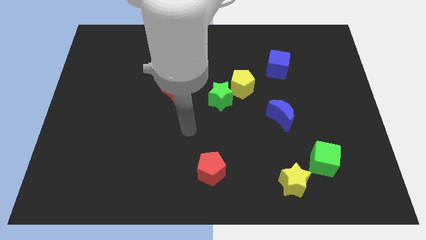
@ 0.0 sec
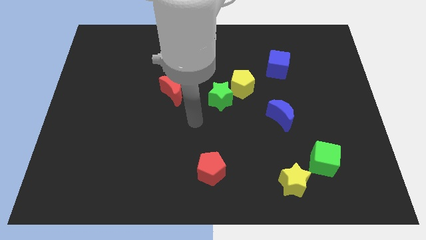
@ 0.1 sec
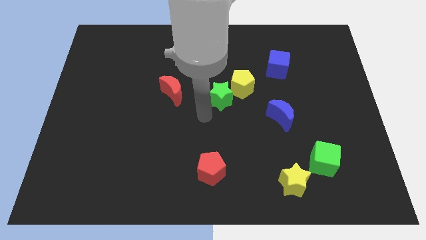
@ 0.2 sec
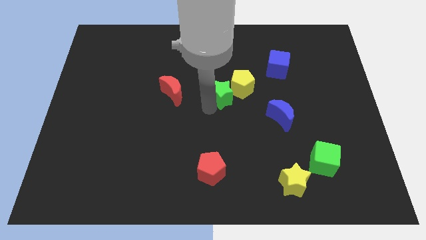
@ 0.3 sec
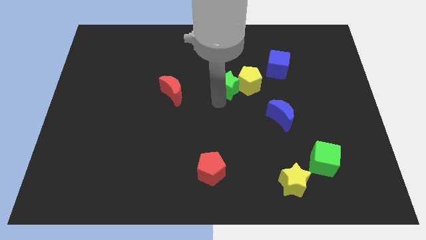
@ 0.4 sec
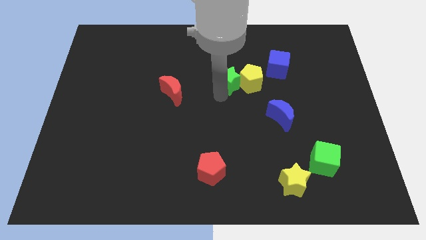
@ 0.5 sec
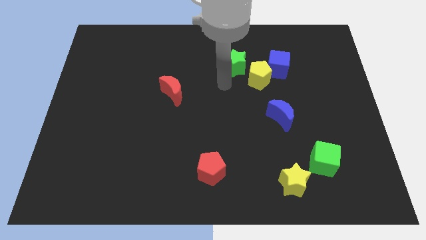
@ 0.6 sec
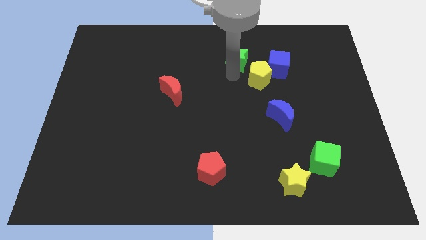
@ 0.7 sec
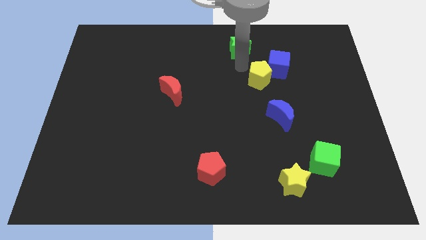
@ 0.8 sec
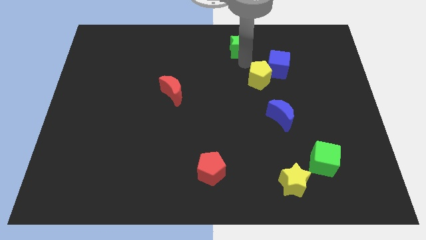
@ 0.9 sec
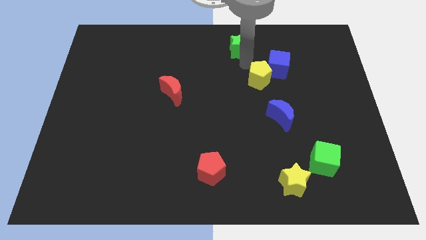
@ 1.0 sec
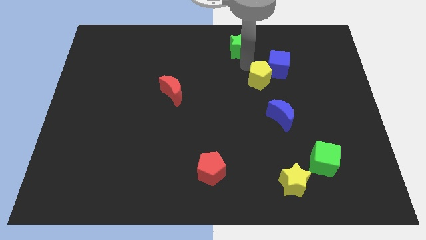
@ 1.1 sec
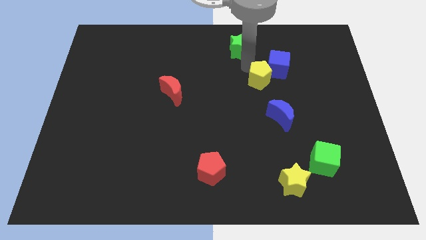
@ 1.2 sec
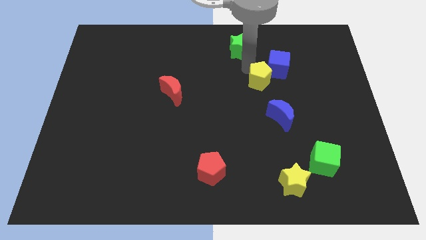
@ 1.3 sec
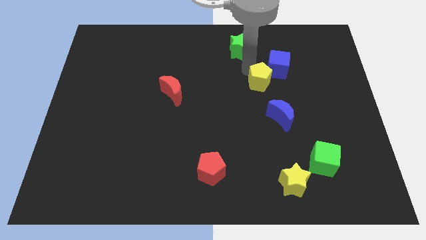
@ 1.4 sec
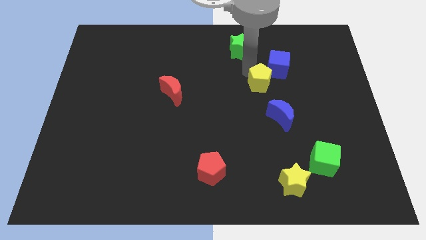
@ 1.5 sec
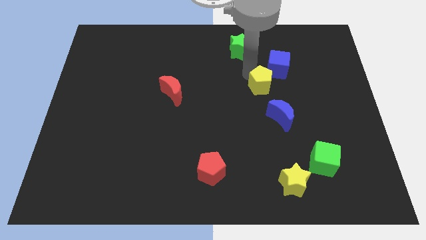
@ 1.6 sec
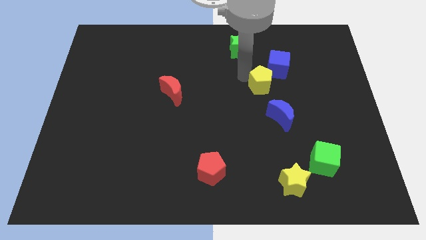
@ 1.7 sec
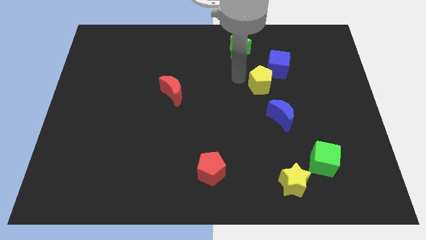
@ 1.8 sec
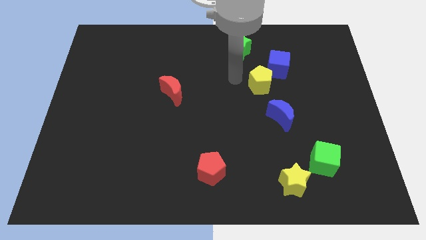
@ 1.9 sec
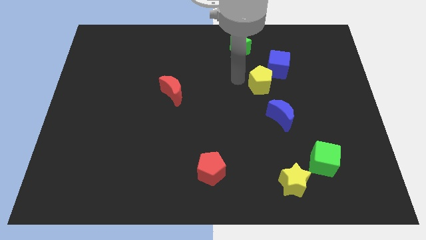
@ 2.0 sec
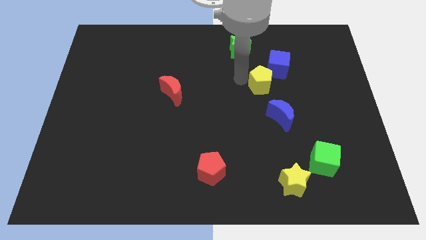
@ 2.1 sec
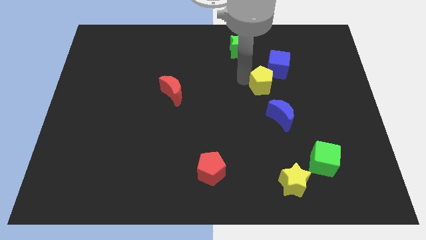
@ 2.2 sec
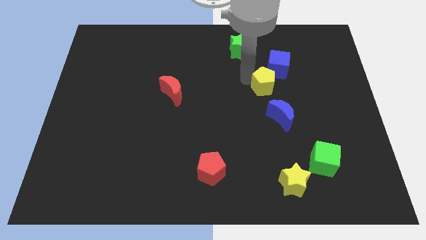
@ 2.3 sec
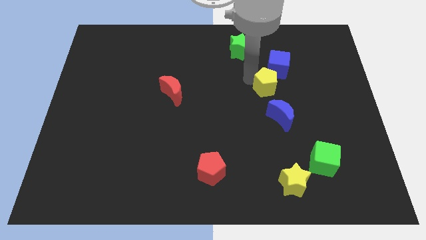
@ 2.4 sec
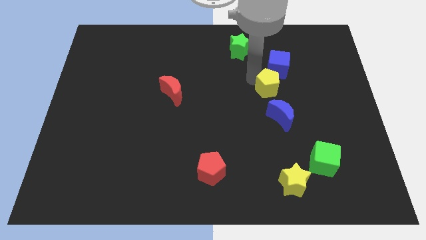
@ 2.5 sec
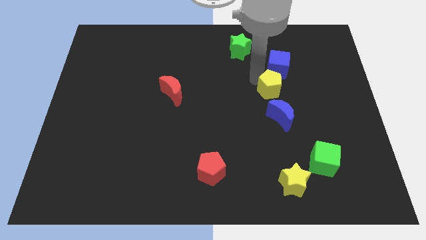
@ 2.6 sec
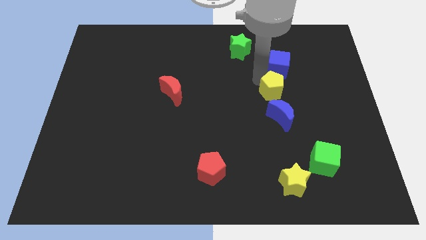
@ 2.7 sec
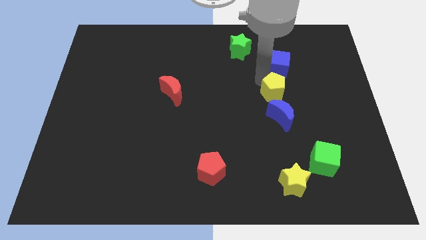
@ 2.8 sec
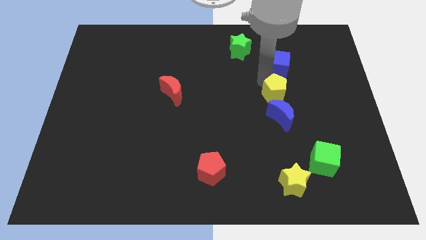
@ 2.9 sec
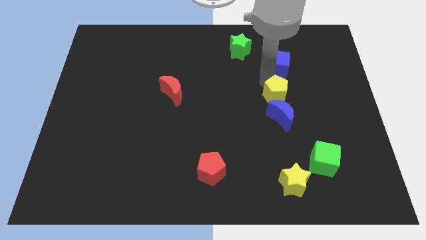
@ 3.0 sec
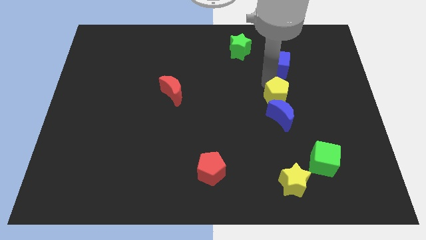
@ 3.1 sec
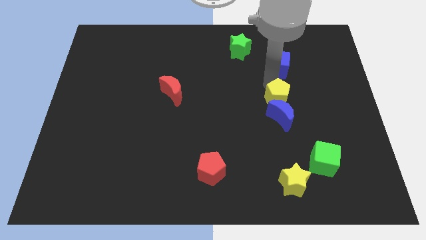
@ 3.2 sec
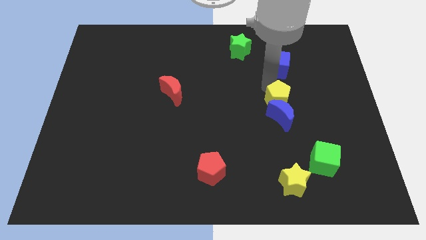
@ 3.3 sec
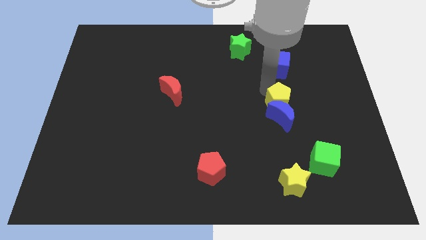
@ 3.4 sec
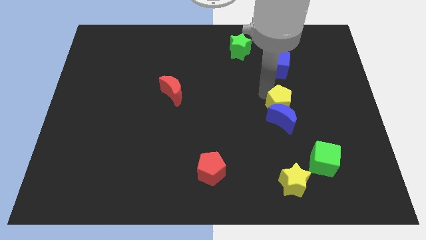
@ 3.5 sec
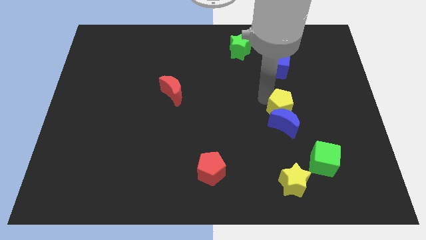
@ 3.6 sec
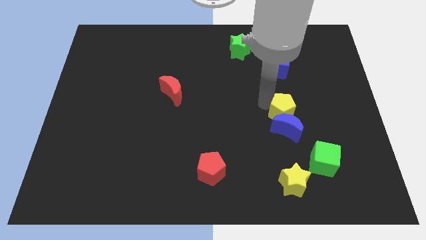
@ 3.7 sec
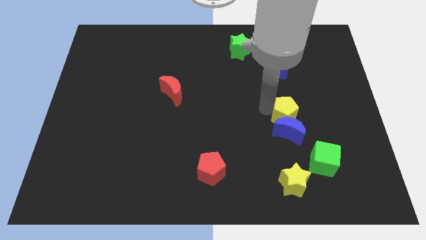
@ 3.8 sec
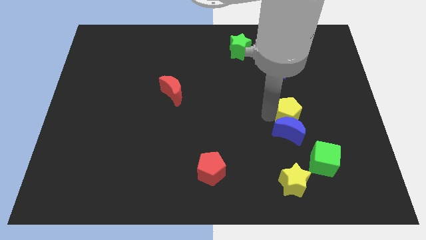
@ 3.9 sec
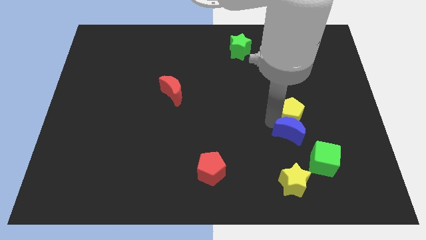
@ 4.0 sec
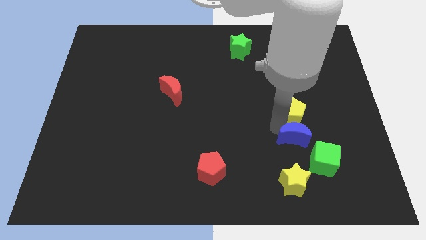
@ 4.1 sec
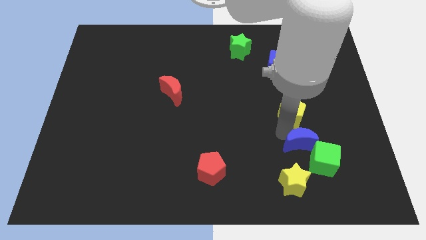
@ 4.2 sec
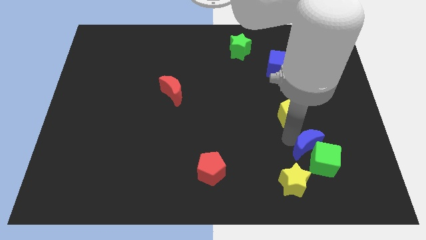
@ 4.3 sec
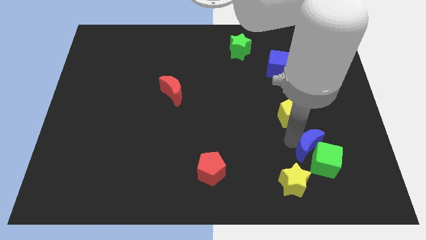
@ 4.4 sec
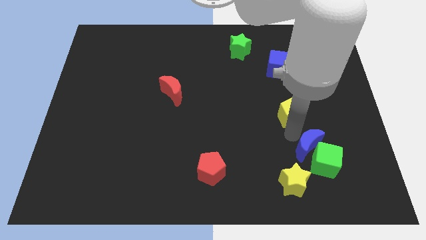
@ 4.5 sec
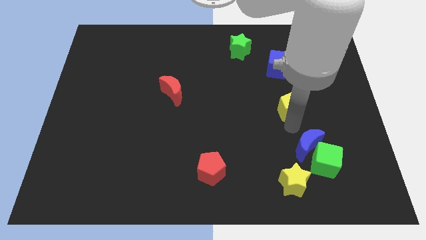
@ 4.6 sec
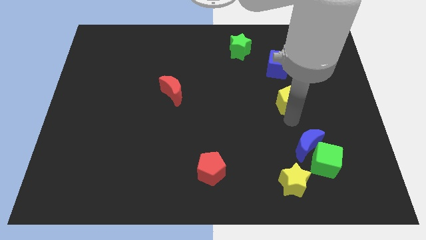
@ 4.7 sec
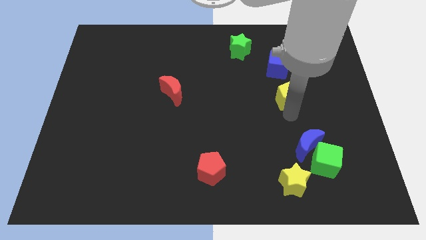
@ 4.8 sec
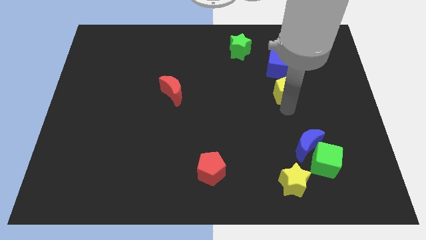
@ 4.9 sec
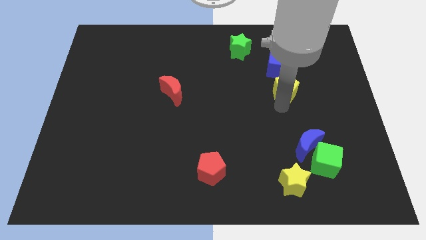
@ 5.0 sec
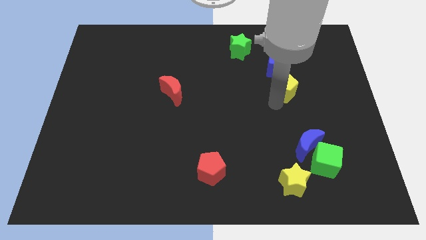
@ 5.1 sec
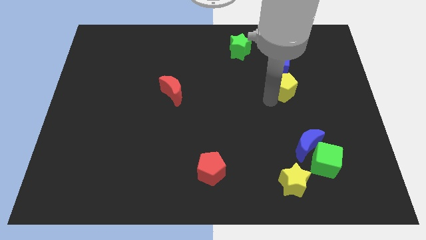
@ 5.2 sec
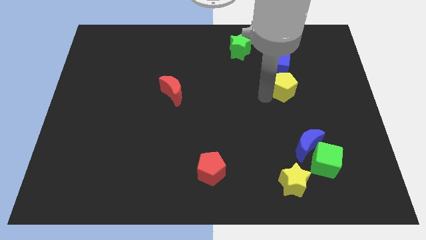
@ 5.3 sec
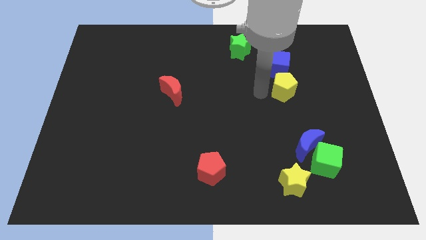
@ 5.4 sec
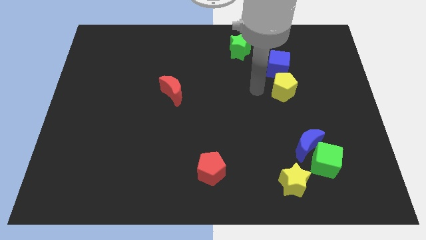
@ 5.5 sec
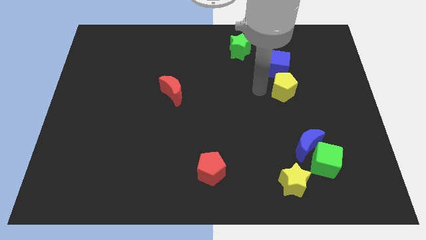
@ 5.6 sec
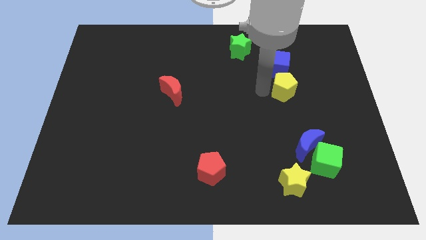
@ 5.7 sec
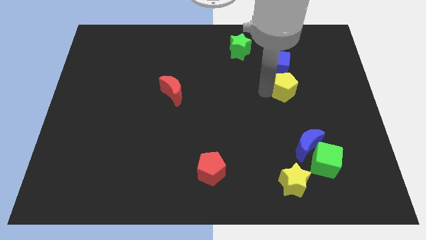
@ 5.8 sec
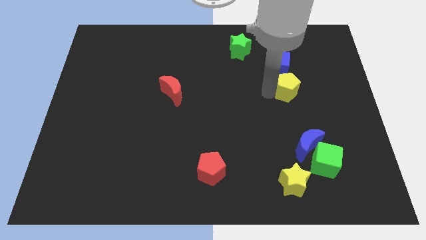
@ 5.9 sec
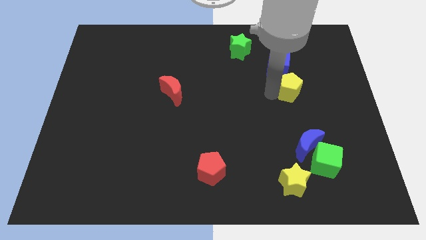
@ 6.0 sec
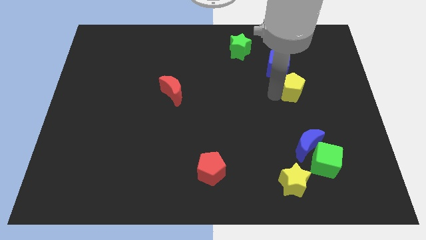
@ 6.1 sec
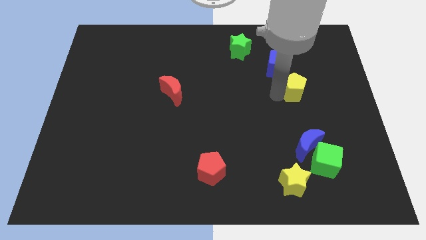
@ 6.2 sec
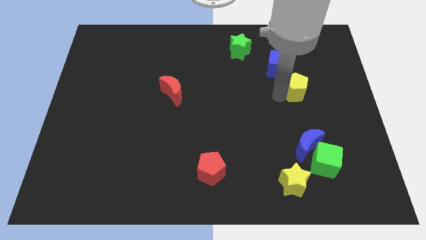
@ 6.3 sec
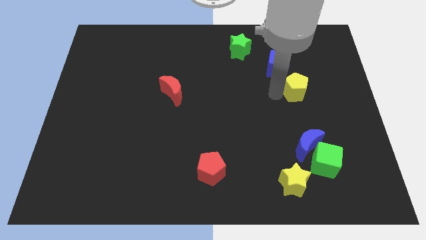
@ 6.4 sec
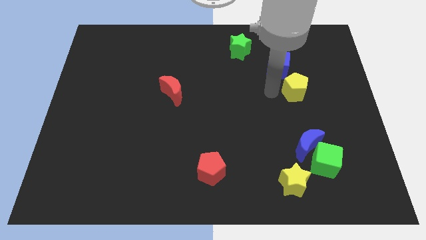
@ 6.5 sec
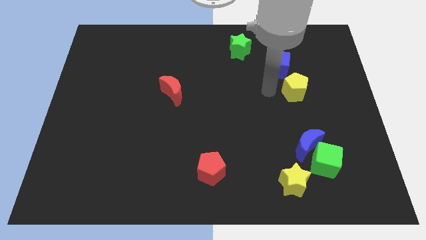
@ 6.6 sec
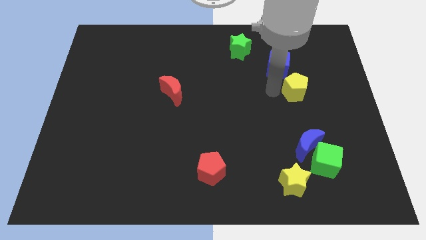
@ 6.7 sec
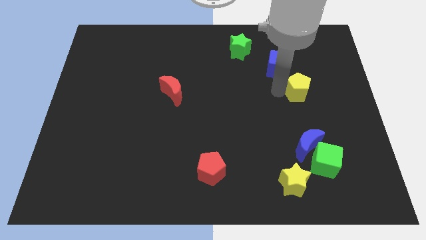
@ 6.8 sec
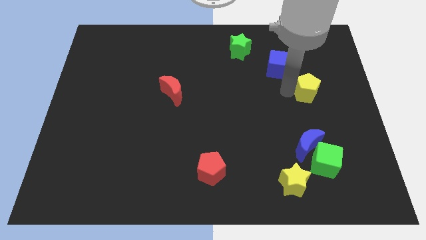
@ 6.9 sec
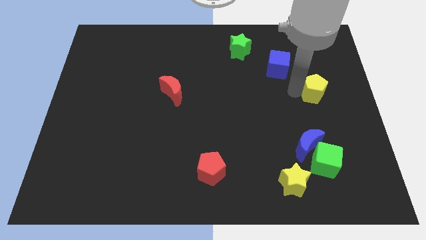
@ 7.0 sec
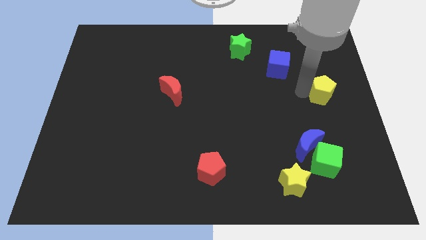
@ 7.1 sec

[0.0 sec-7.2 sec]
push the yellow pentagon to the center right
